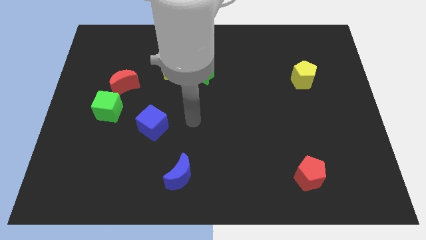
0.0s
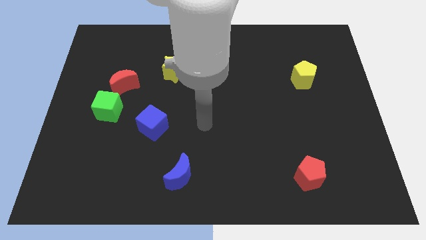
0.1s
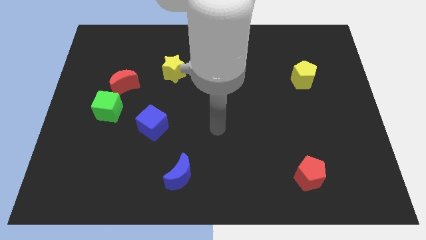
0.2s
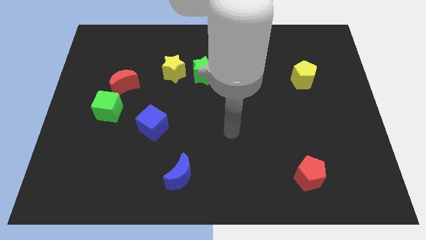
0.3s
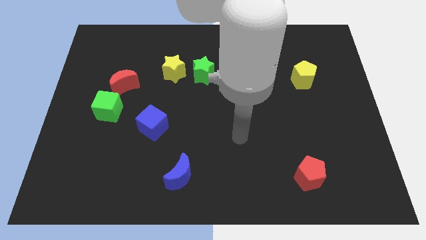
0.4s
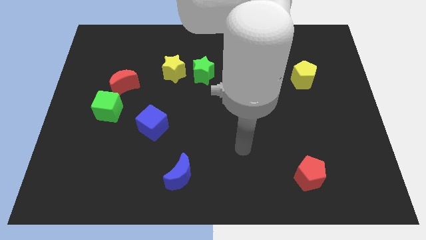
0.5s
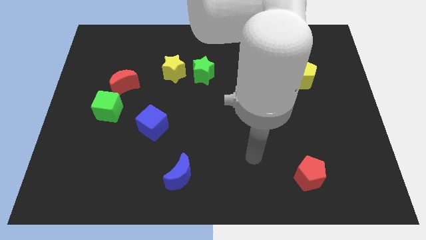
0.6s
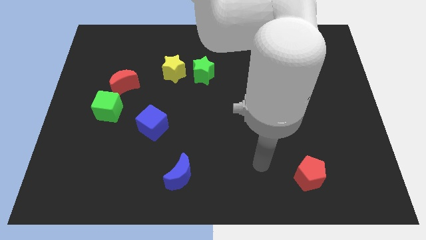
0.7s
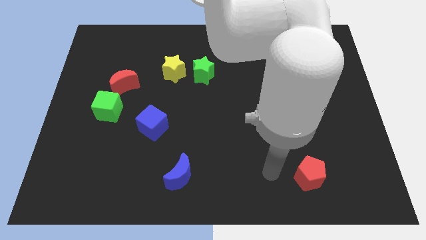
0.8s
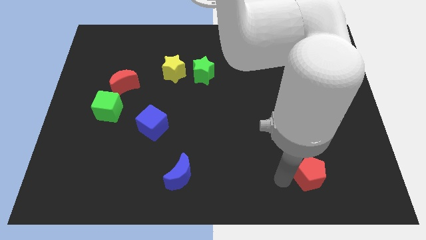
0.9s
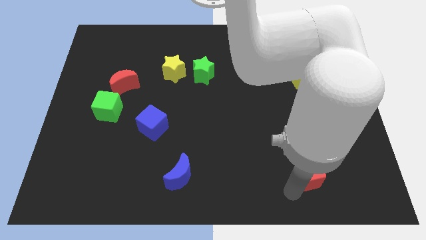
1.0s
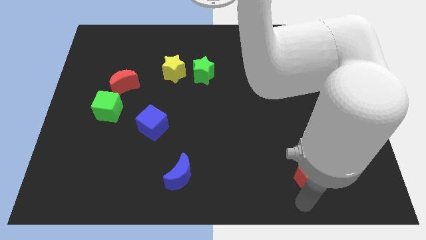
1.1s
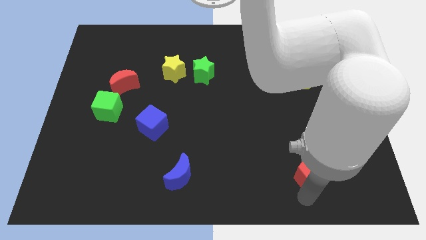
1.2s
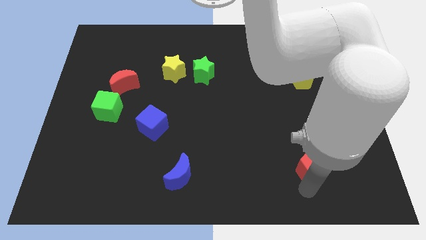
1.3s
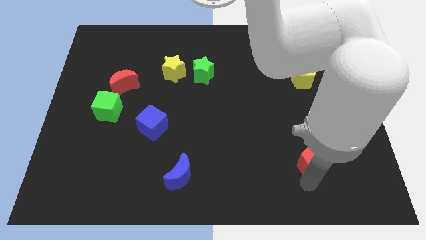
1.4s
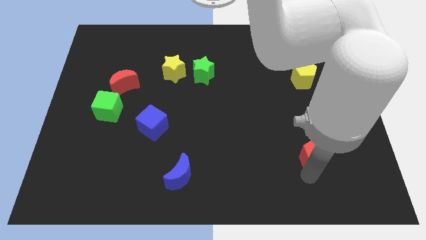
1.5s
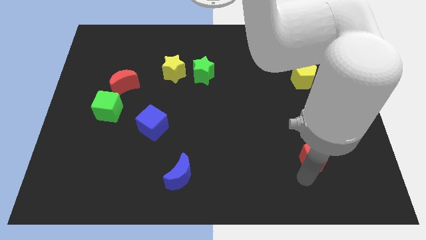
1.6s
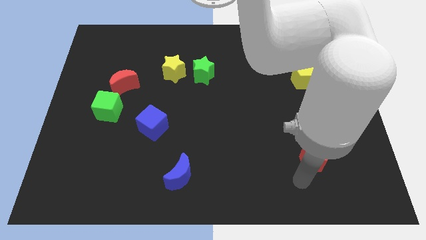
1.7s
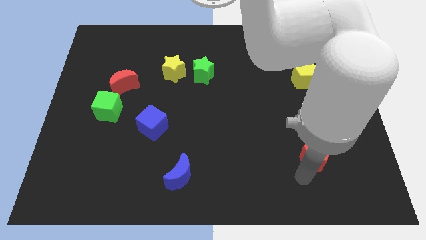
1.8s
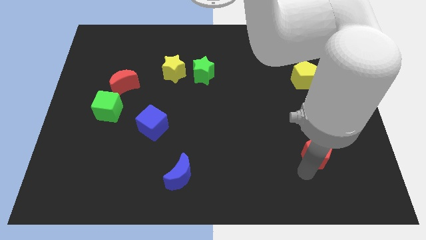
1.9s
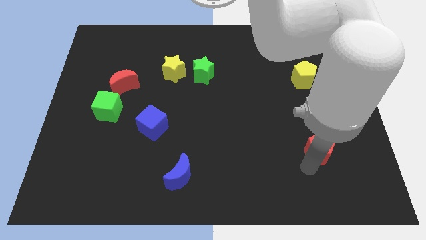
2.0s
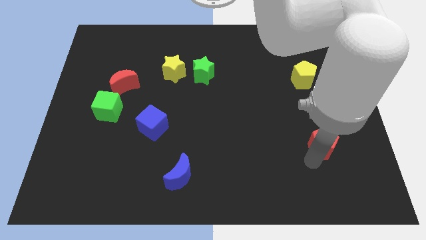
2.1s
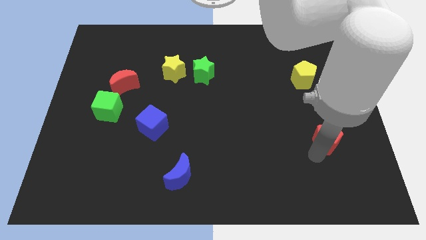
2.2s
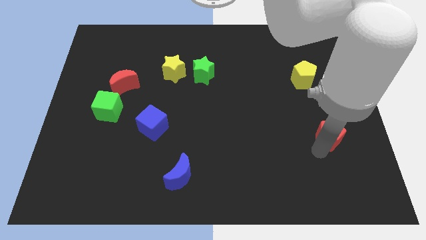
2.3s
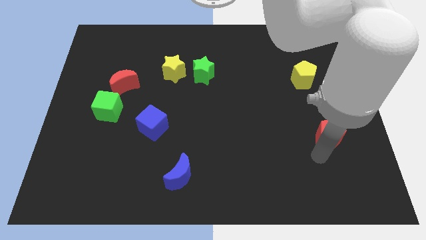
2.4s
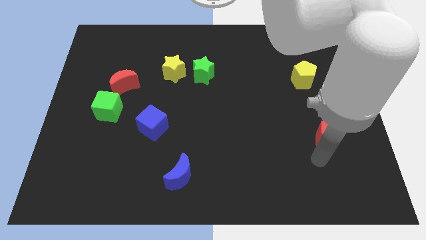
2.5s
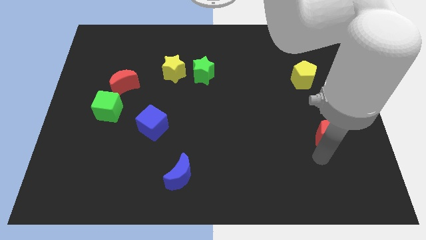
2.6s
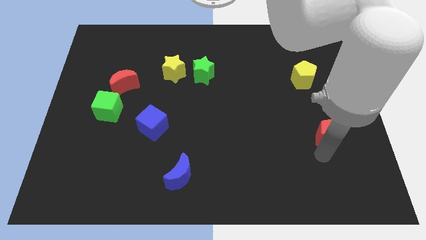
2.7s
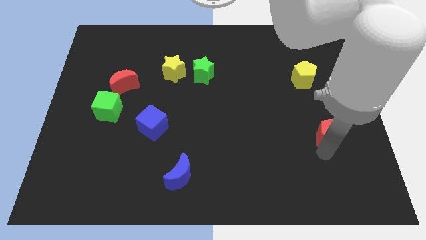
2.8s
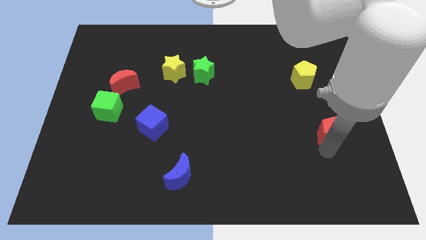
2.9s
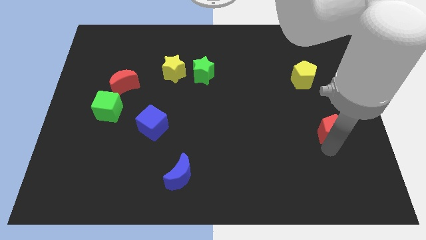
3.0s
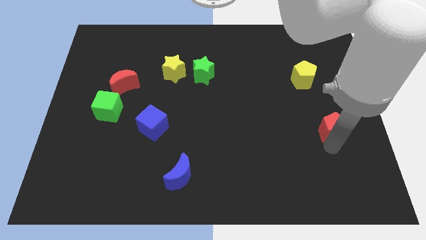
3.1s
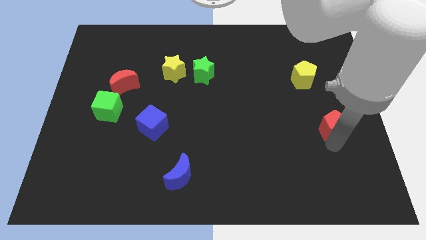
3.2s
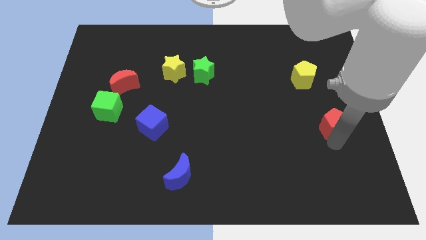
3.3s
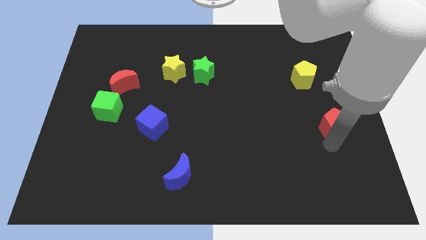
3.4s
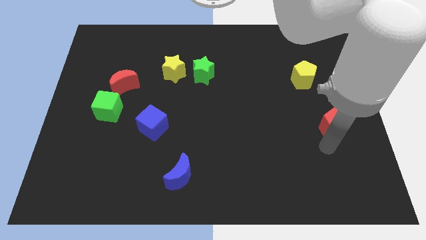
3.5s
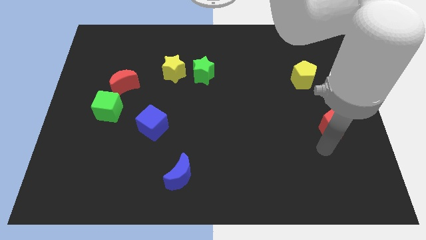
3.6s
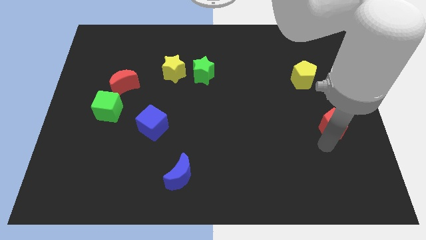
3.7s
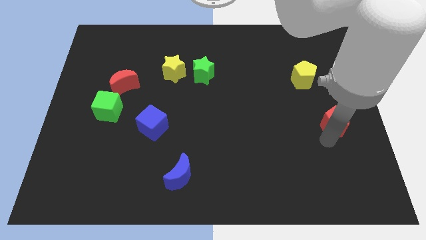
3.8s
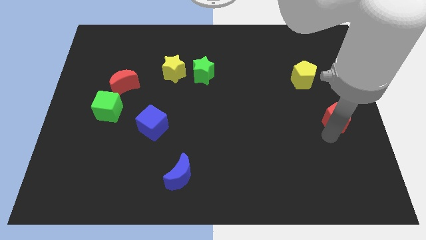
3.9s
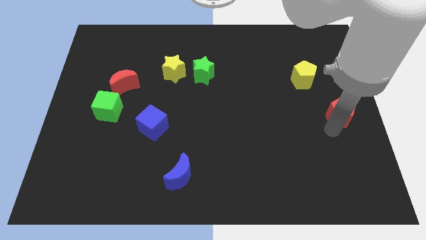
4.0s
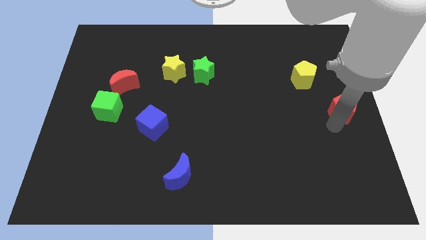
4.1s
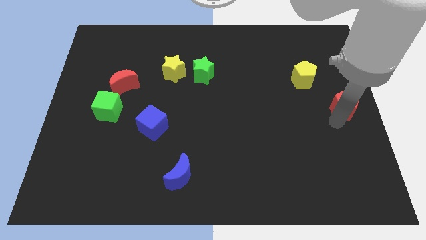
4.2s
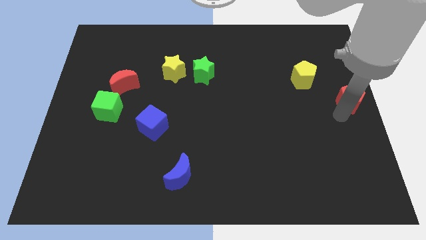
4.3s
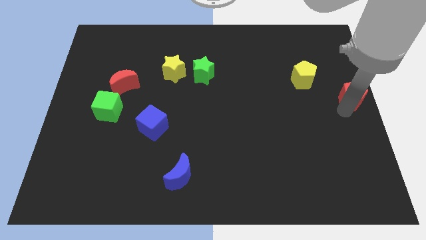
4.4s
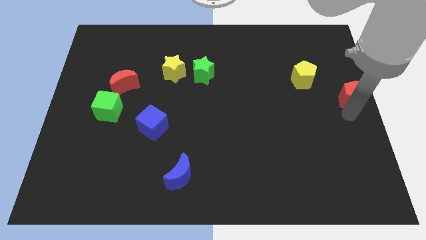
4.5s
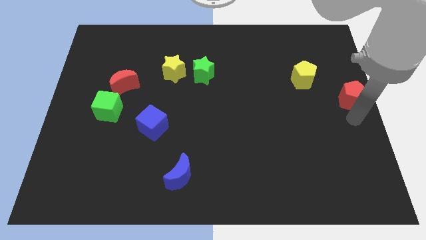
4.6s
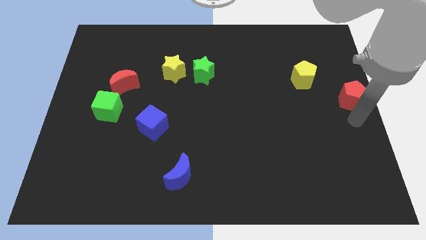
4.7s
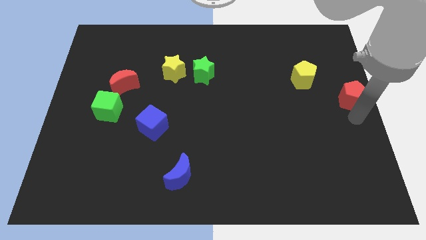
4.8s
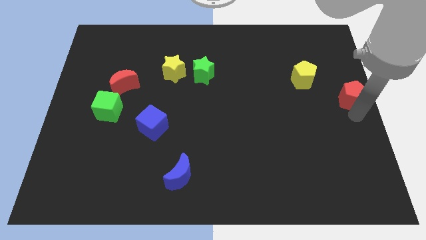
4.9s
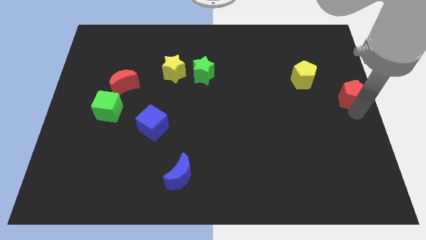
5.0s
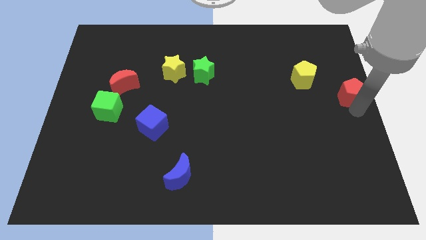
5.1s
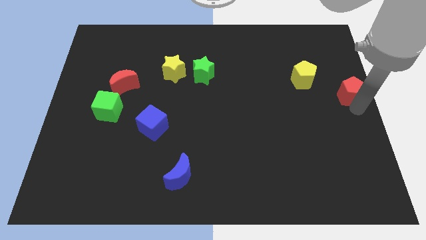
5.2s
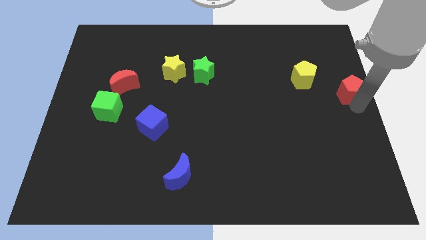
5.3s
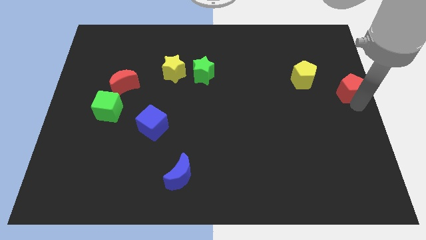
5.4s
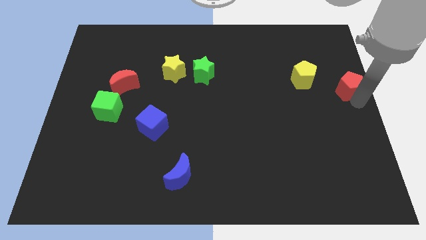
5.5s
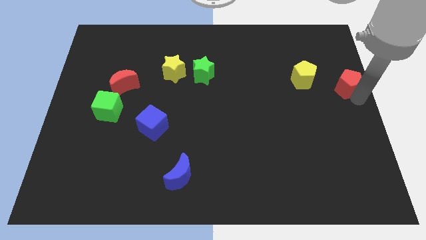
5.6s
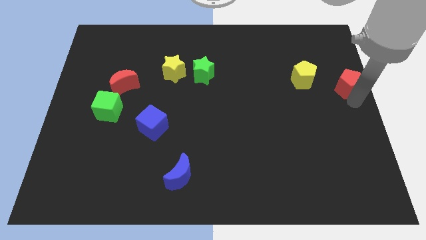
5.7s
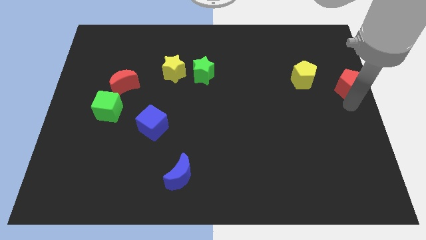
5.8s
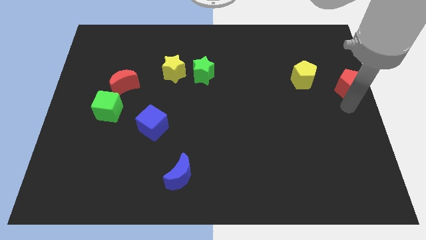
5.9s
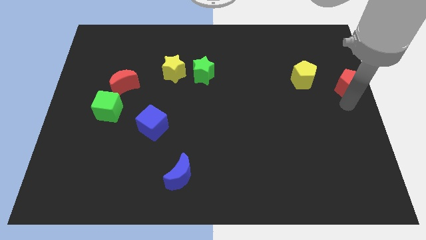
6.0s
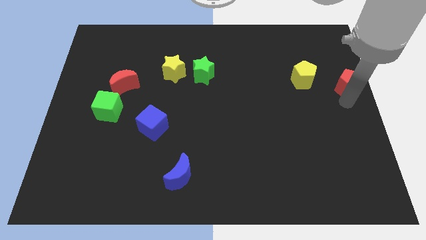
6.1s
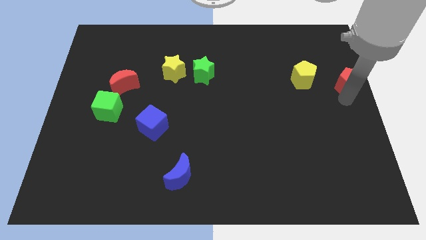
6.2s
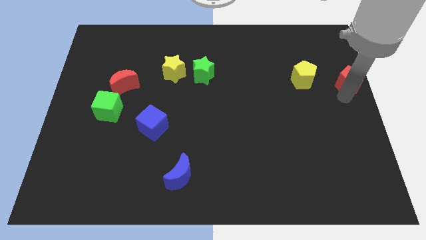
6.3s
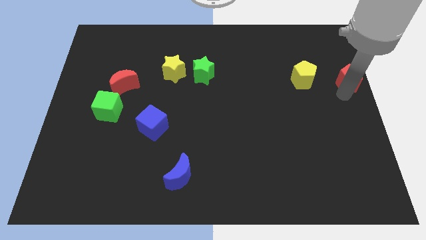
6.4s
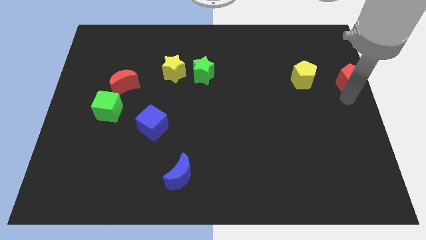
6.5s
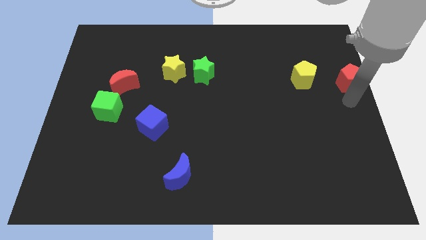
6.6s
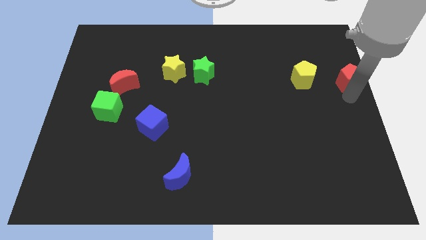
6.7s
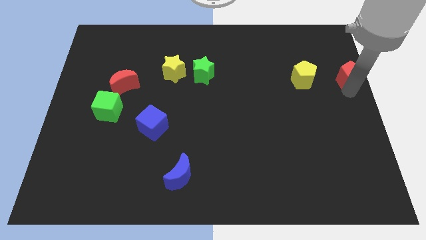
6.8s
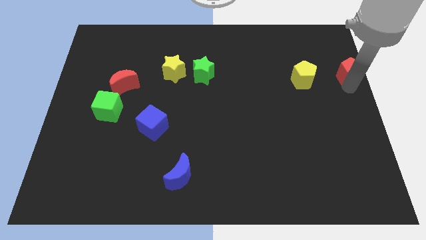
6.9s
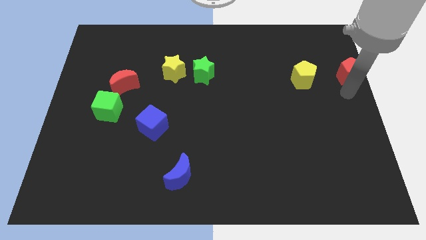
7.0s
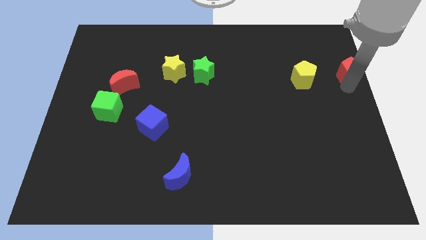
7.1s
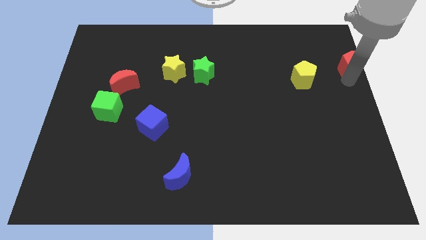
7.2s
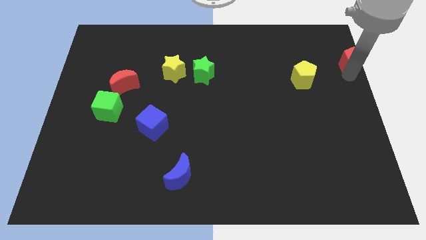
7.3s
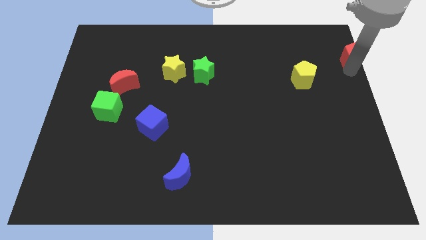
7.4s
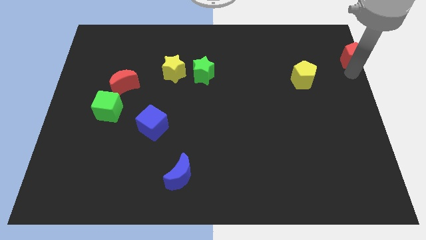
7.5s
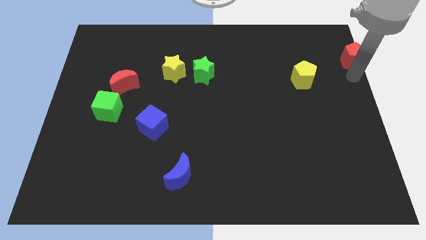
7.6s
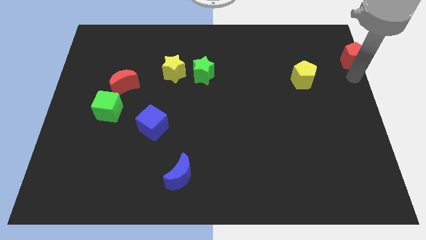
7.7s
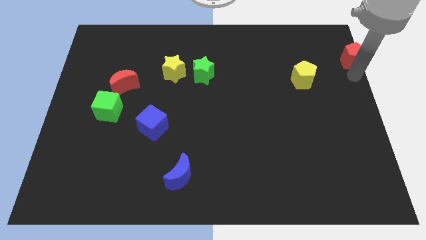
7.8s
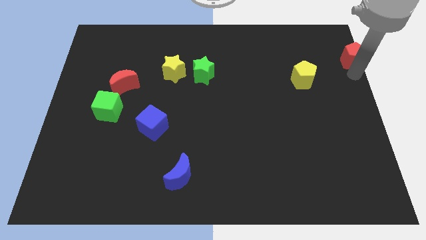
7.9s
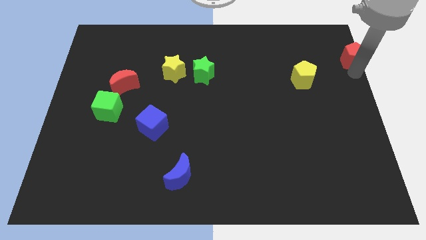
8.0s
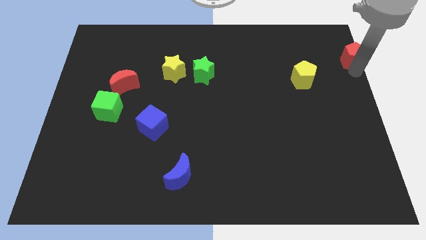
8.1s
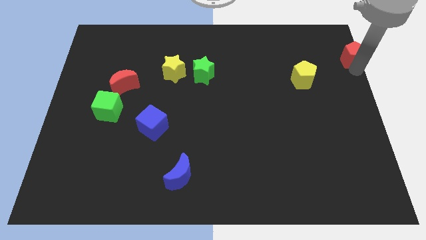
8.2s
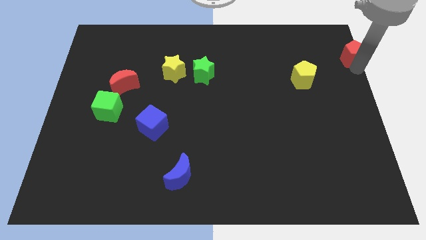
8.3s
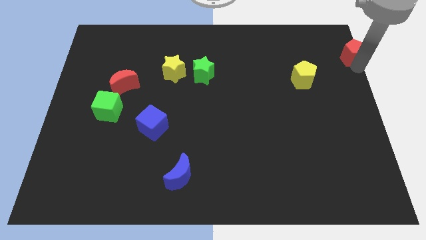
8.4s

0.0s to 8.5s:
push the red pentagon to the top right

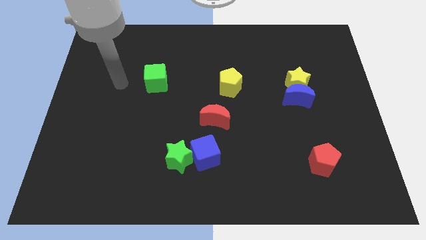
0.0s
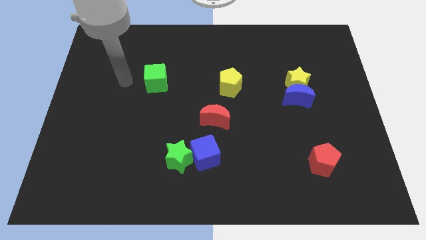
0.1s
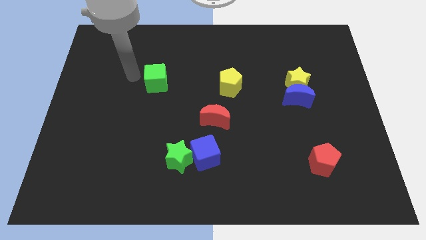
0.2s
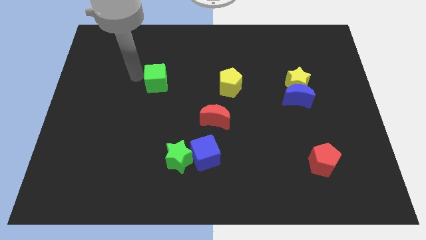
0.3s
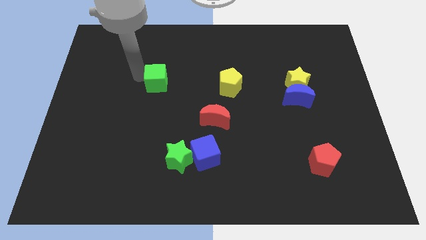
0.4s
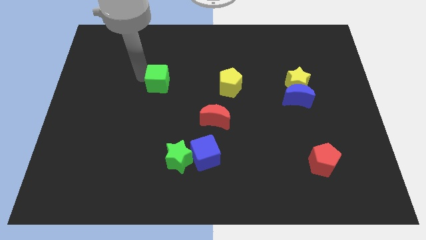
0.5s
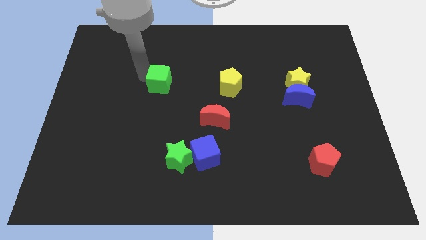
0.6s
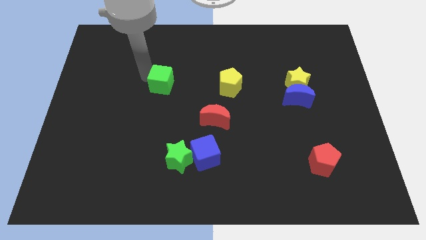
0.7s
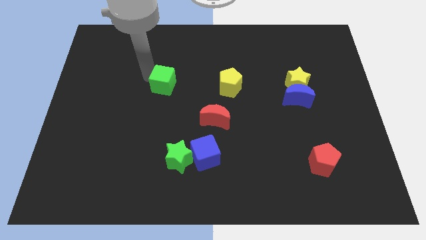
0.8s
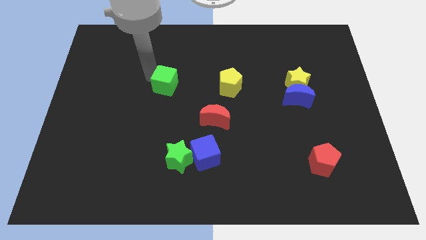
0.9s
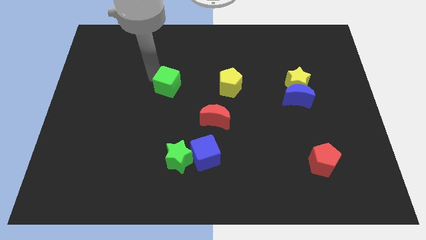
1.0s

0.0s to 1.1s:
put the green cube to the center of the board
